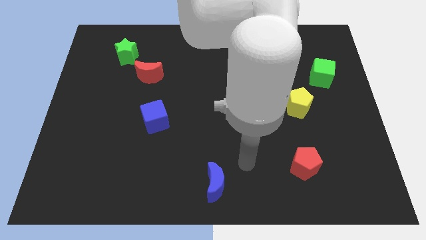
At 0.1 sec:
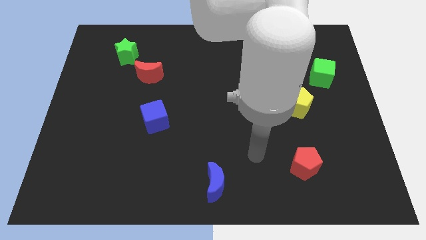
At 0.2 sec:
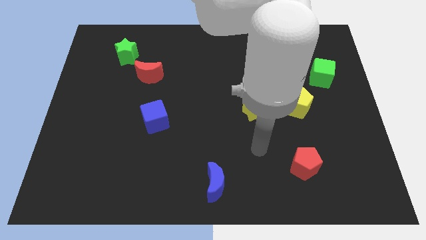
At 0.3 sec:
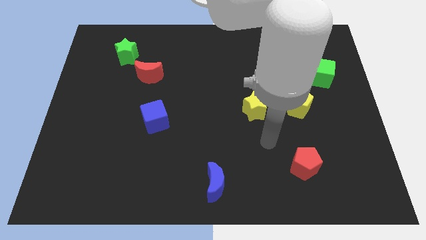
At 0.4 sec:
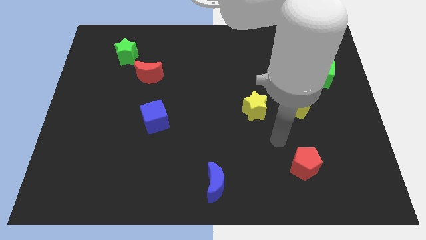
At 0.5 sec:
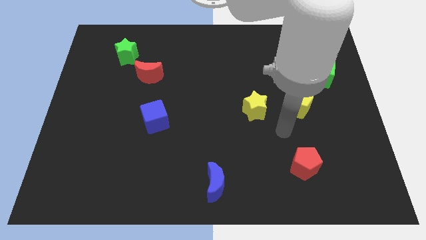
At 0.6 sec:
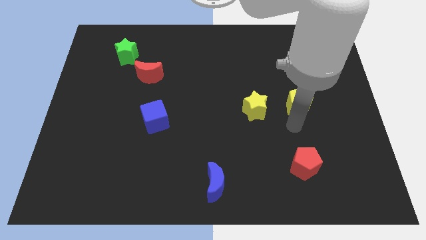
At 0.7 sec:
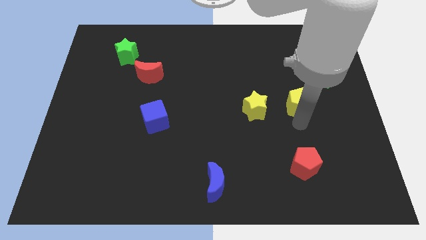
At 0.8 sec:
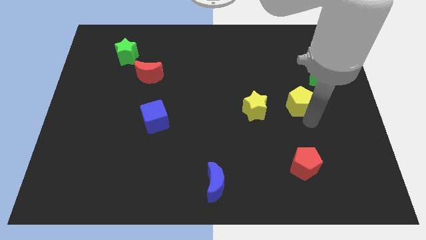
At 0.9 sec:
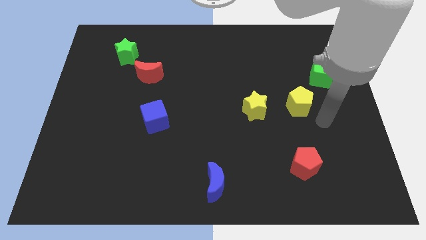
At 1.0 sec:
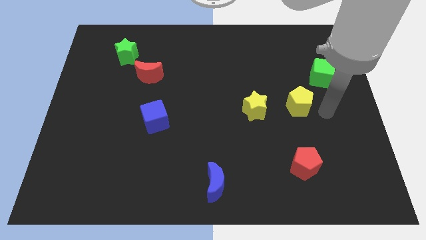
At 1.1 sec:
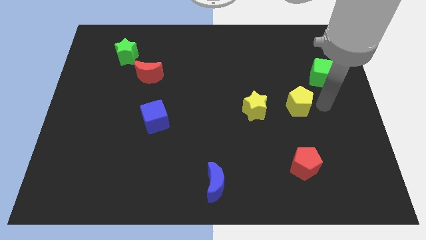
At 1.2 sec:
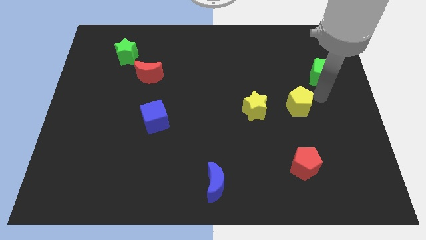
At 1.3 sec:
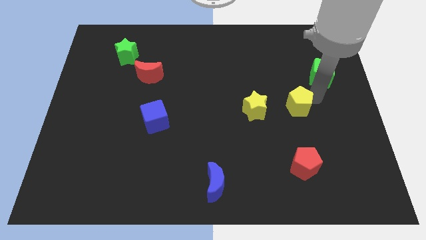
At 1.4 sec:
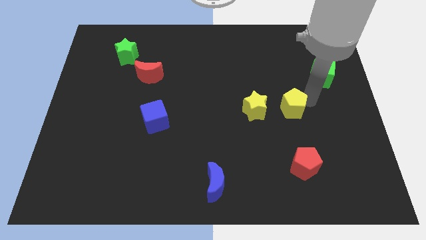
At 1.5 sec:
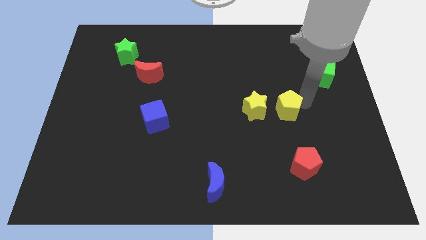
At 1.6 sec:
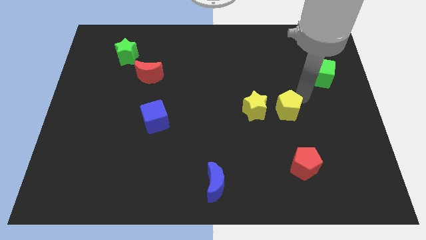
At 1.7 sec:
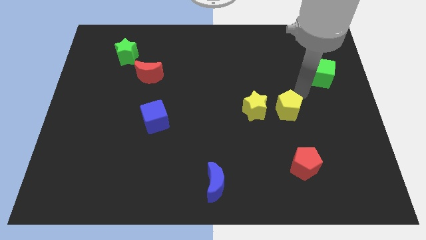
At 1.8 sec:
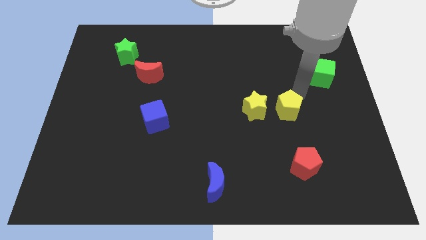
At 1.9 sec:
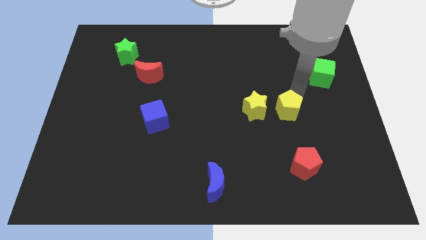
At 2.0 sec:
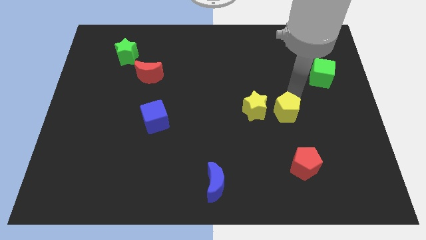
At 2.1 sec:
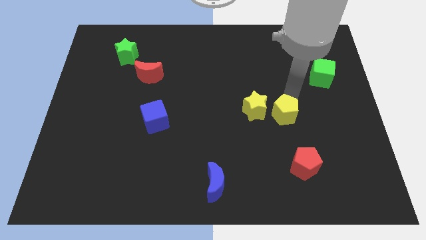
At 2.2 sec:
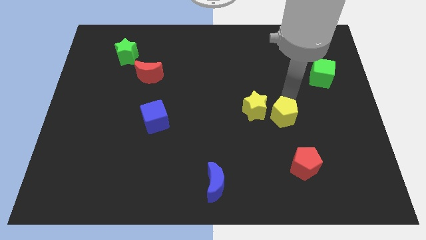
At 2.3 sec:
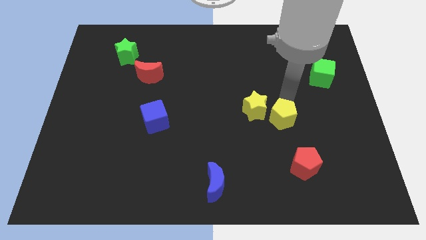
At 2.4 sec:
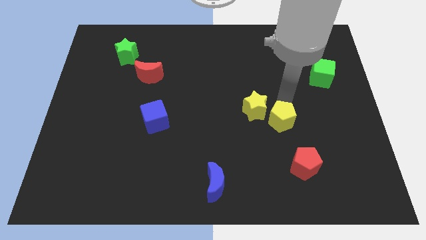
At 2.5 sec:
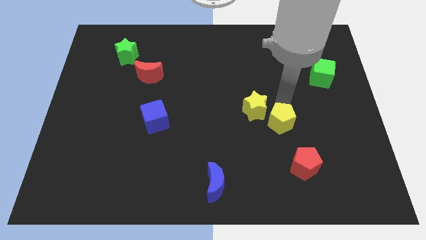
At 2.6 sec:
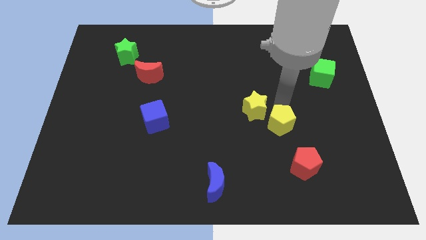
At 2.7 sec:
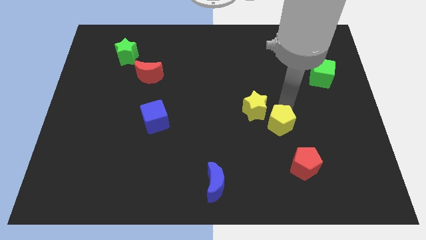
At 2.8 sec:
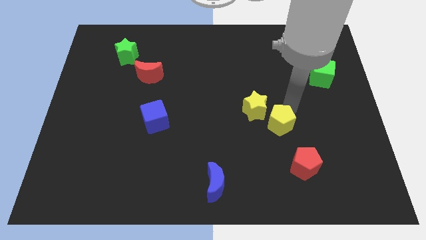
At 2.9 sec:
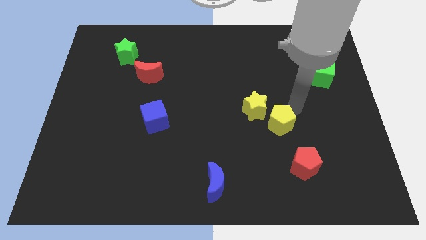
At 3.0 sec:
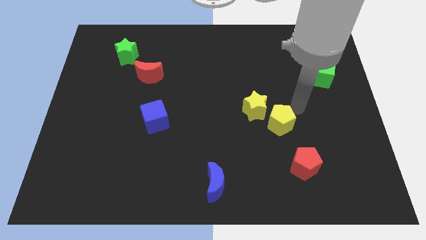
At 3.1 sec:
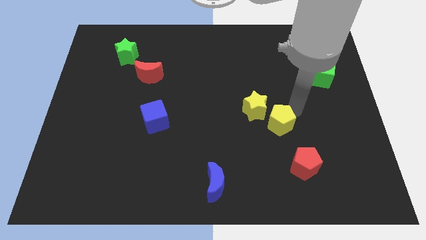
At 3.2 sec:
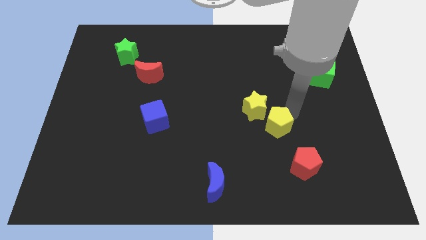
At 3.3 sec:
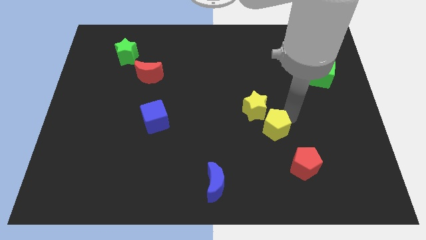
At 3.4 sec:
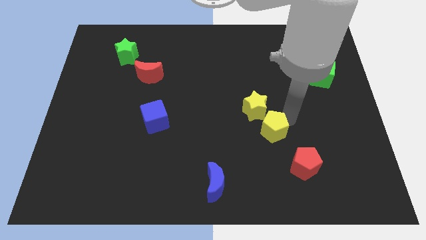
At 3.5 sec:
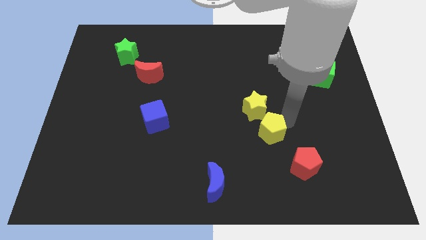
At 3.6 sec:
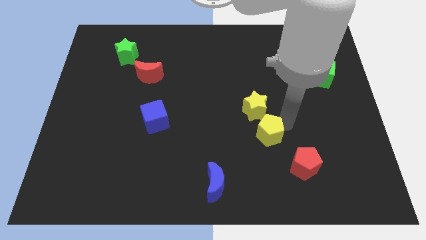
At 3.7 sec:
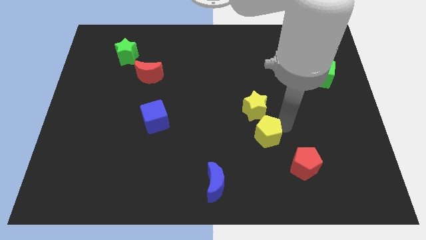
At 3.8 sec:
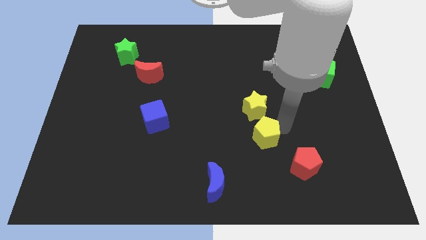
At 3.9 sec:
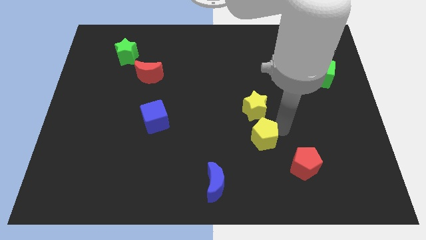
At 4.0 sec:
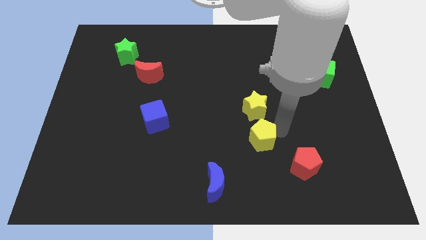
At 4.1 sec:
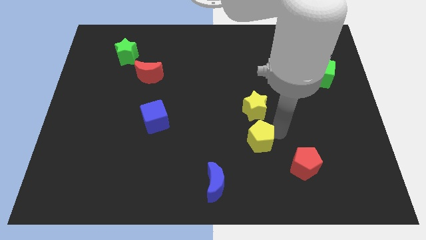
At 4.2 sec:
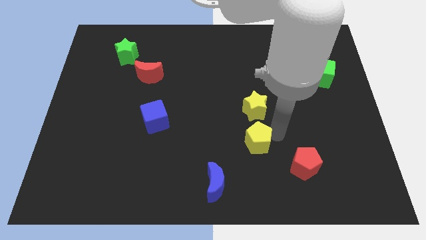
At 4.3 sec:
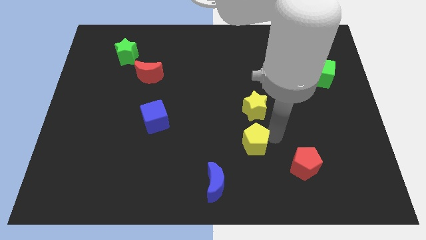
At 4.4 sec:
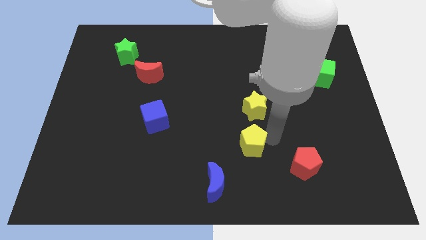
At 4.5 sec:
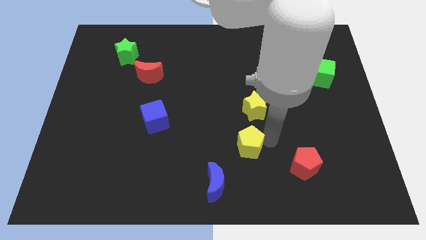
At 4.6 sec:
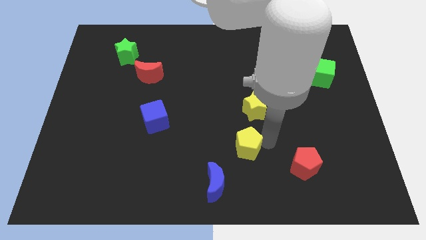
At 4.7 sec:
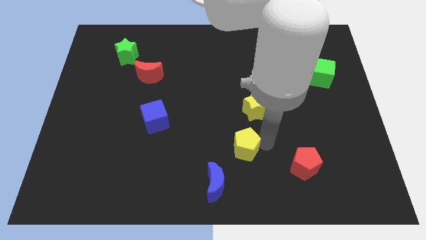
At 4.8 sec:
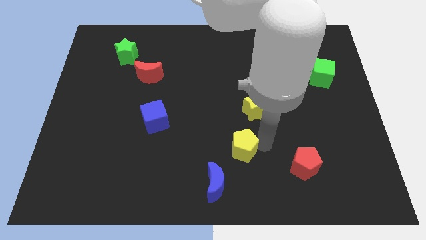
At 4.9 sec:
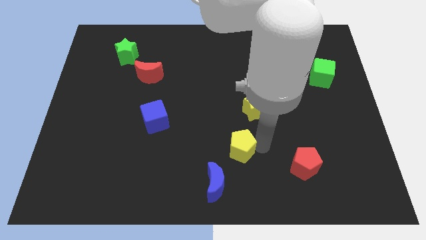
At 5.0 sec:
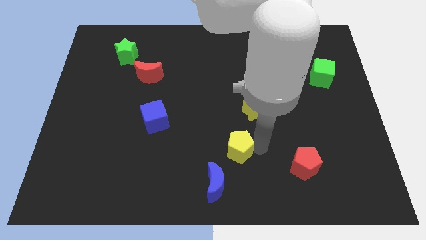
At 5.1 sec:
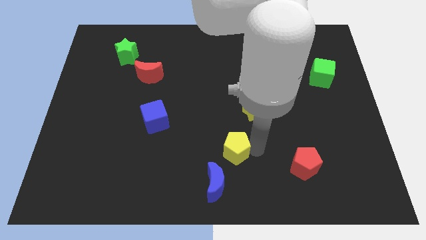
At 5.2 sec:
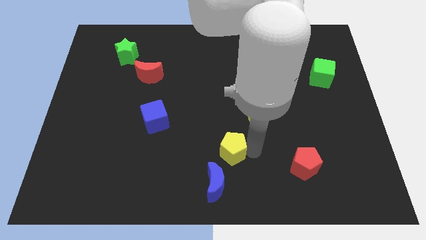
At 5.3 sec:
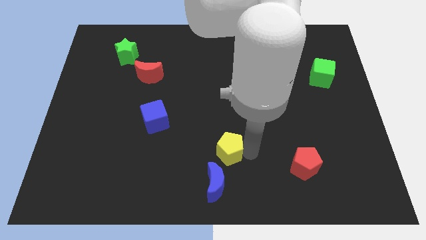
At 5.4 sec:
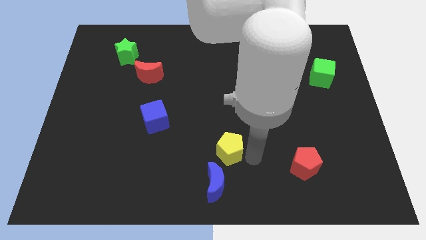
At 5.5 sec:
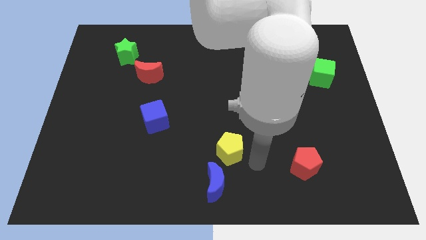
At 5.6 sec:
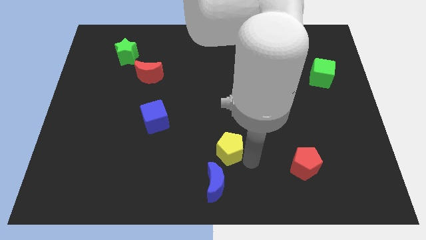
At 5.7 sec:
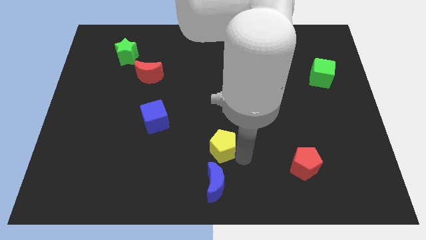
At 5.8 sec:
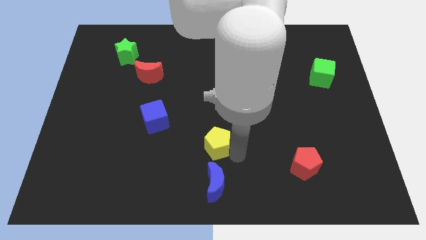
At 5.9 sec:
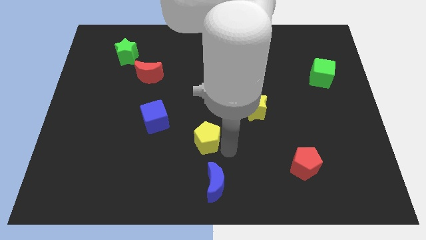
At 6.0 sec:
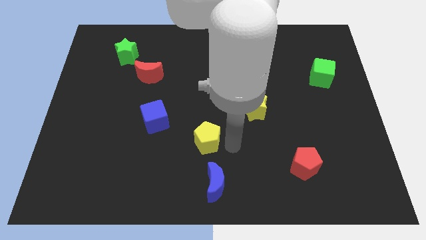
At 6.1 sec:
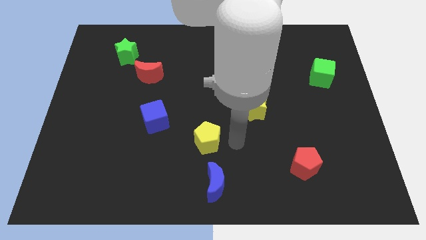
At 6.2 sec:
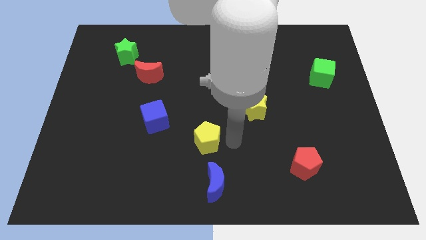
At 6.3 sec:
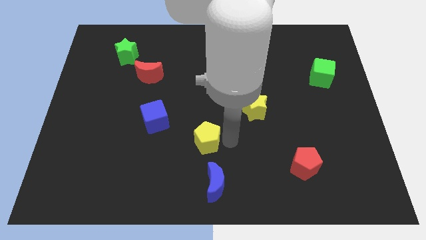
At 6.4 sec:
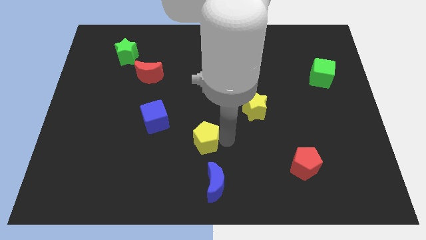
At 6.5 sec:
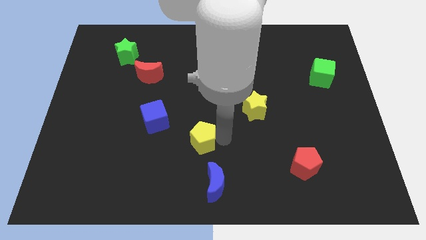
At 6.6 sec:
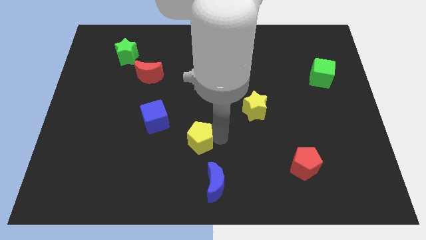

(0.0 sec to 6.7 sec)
put the yellow pentagon diagonally down and to the right of the blue cube

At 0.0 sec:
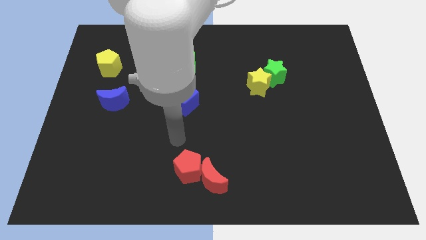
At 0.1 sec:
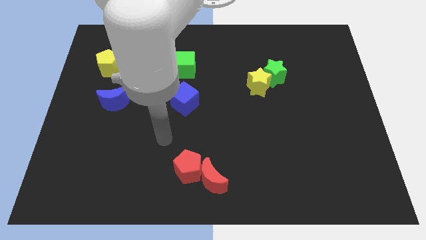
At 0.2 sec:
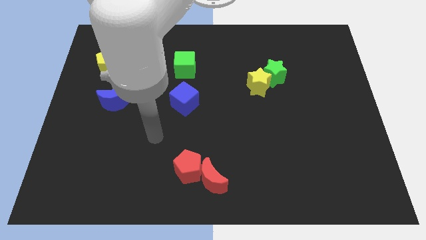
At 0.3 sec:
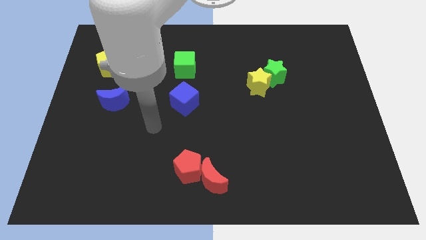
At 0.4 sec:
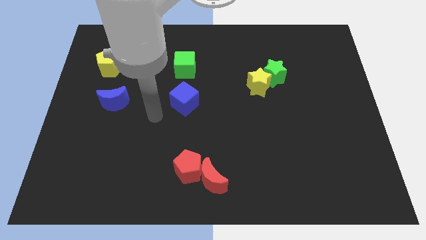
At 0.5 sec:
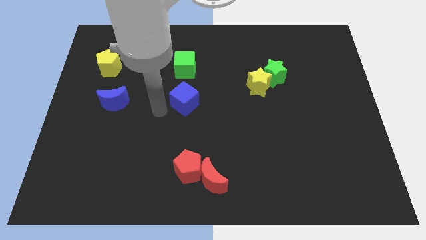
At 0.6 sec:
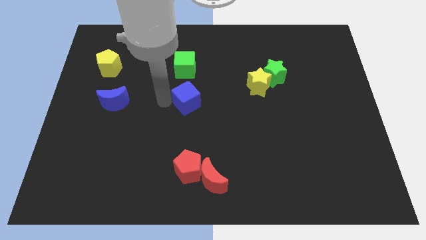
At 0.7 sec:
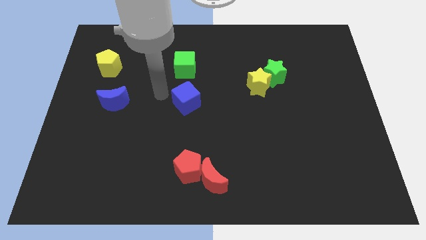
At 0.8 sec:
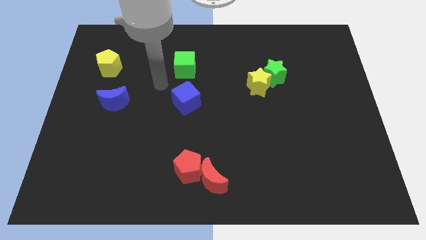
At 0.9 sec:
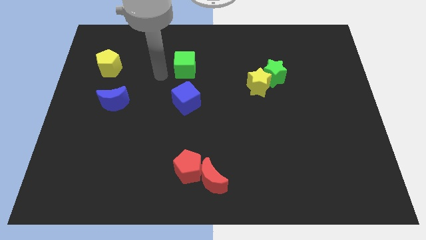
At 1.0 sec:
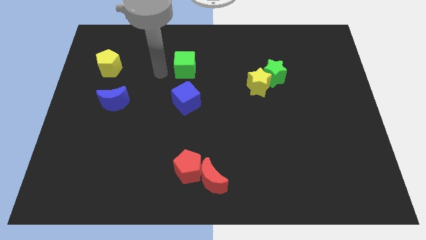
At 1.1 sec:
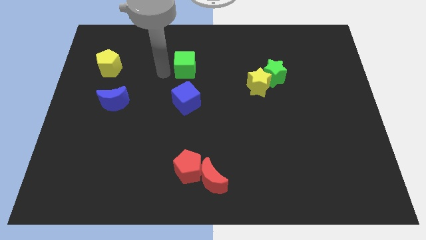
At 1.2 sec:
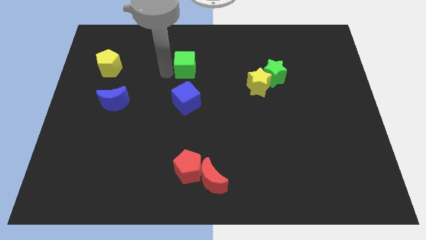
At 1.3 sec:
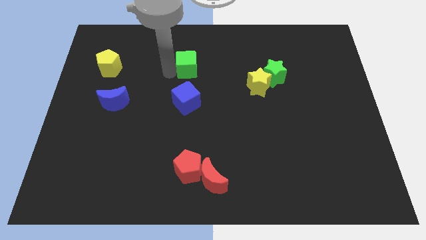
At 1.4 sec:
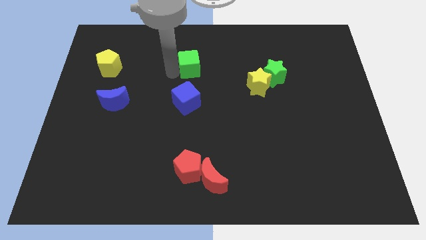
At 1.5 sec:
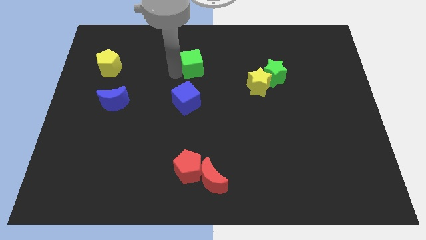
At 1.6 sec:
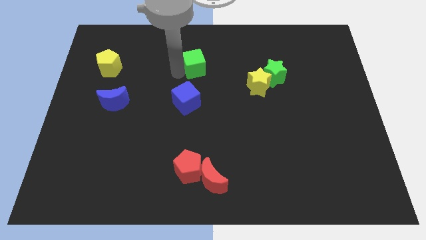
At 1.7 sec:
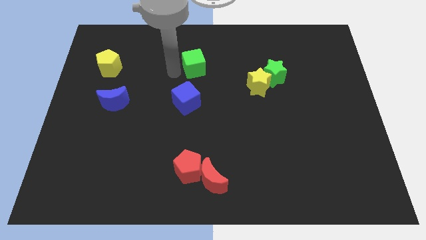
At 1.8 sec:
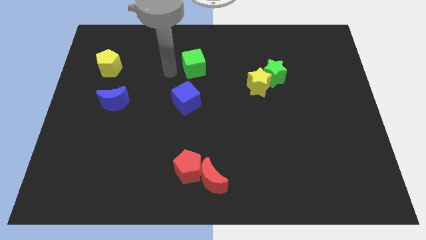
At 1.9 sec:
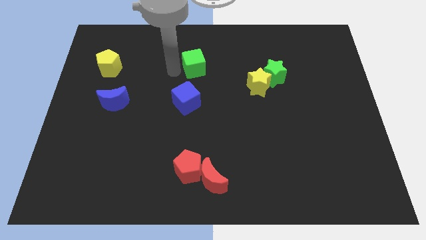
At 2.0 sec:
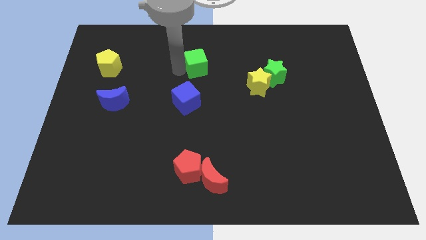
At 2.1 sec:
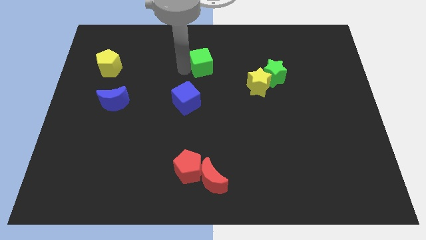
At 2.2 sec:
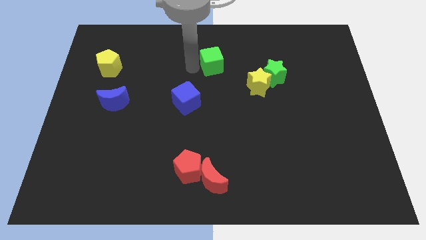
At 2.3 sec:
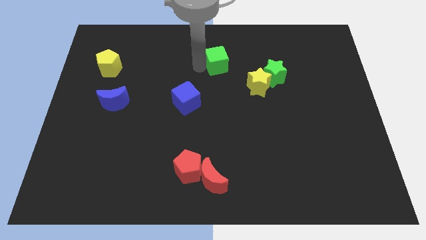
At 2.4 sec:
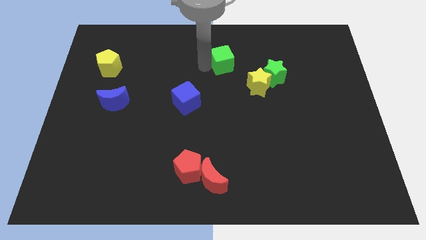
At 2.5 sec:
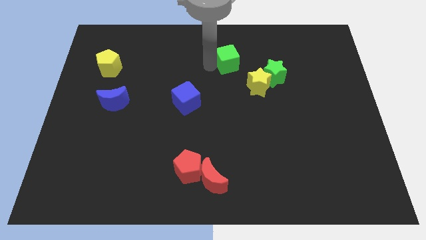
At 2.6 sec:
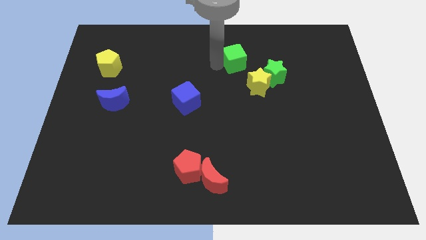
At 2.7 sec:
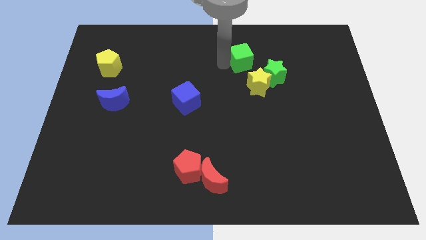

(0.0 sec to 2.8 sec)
put the green cube to the top of the yellow star
